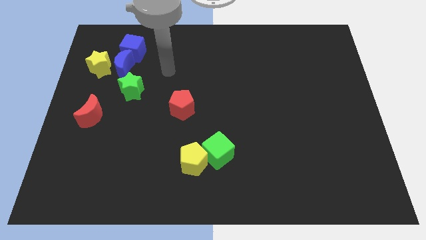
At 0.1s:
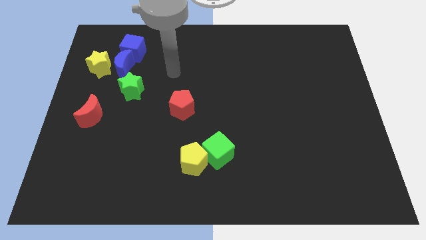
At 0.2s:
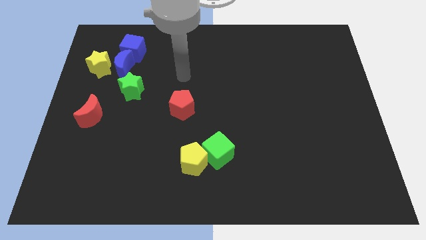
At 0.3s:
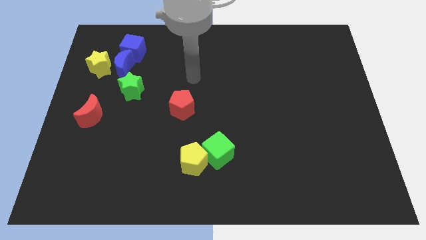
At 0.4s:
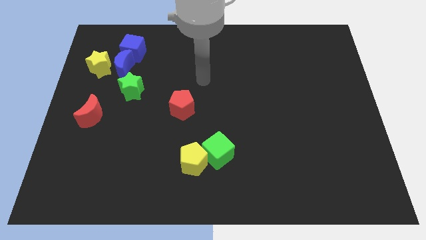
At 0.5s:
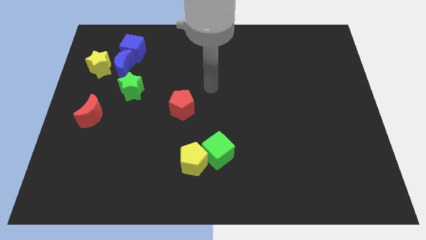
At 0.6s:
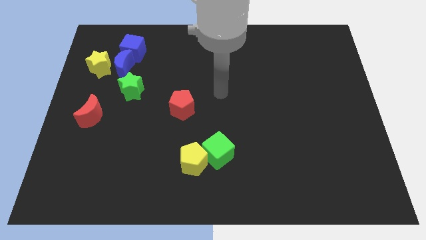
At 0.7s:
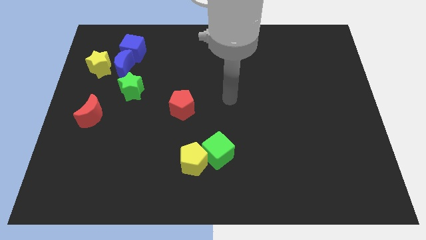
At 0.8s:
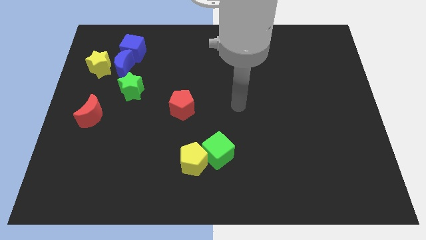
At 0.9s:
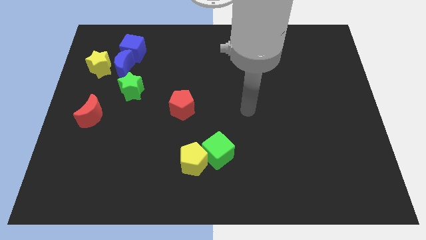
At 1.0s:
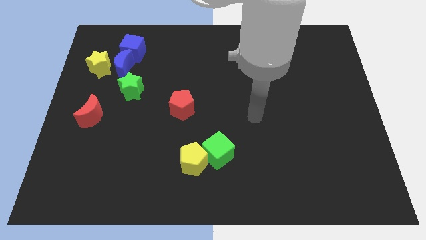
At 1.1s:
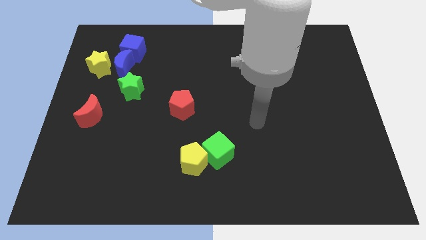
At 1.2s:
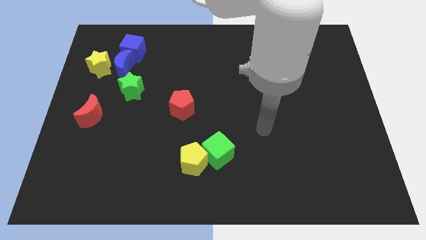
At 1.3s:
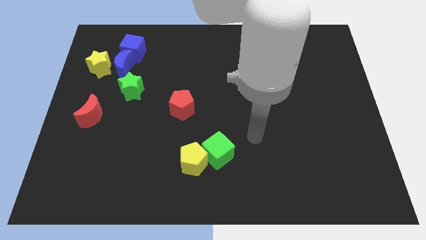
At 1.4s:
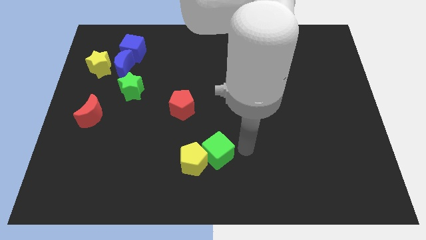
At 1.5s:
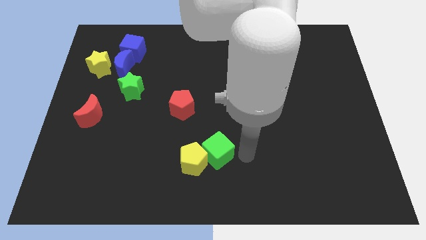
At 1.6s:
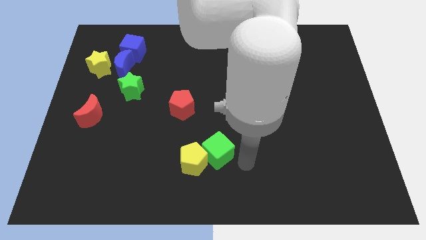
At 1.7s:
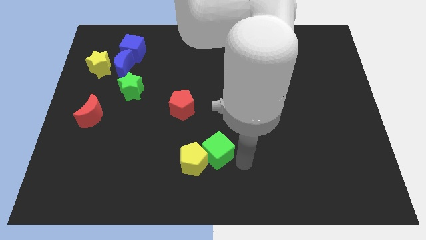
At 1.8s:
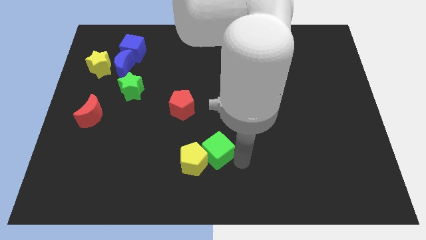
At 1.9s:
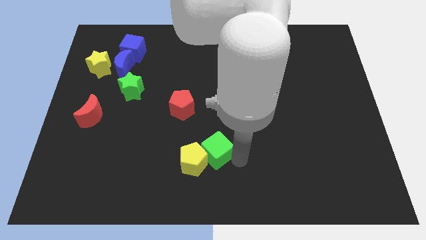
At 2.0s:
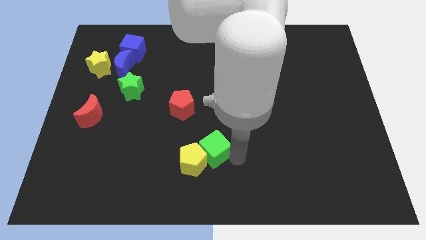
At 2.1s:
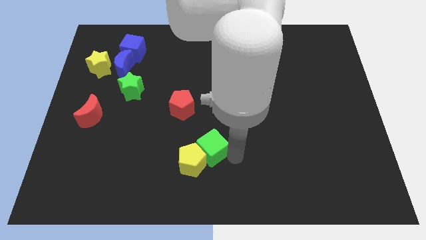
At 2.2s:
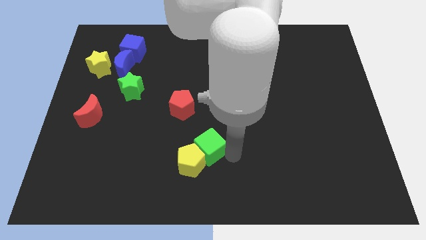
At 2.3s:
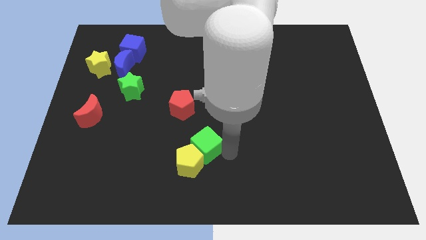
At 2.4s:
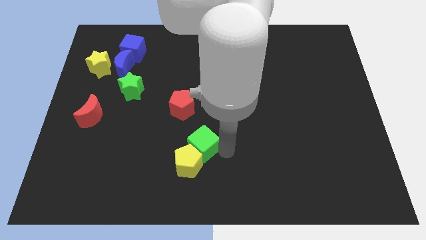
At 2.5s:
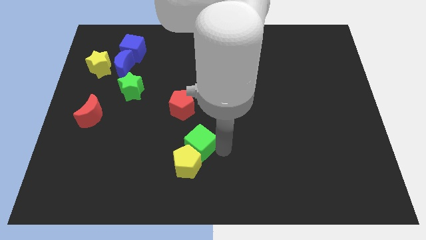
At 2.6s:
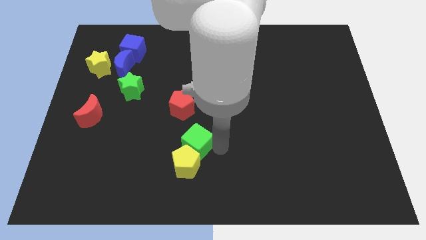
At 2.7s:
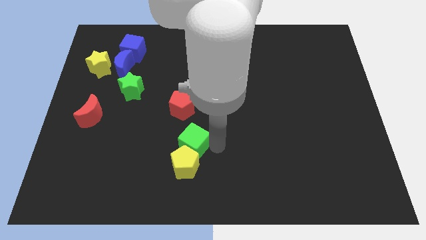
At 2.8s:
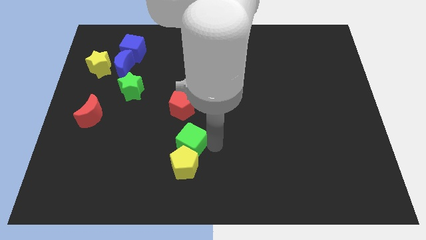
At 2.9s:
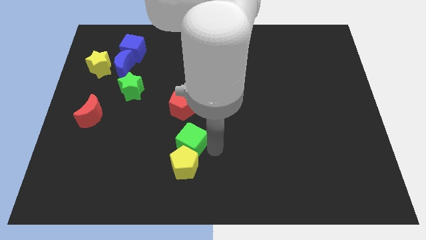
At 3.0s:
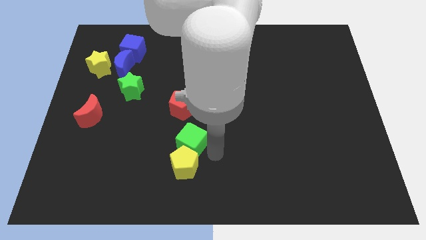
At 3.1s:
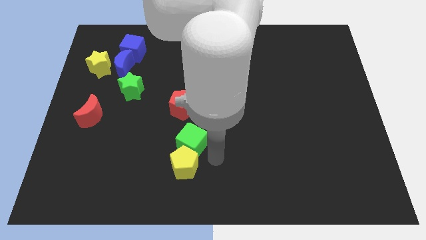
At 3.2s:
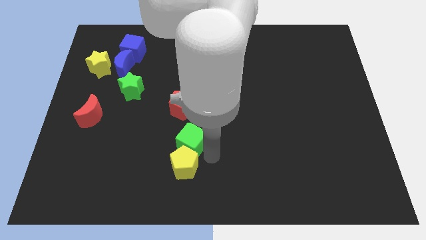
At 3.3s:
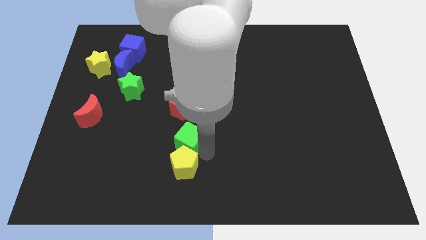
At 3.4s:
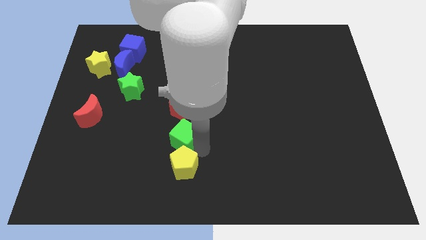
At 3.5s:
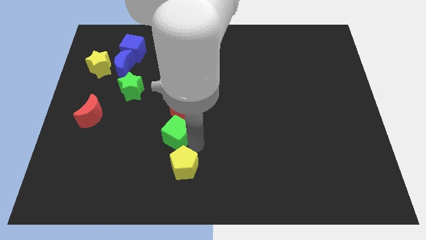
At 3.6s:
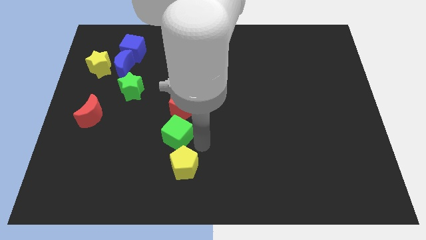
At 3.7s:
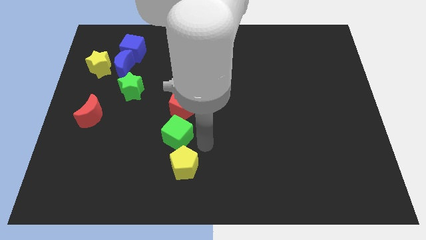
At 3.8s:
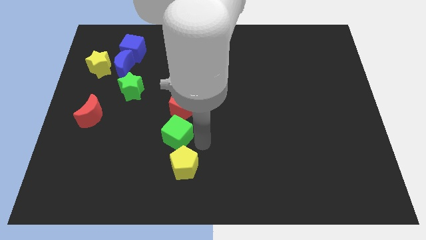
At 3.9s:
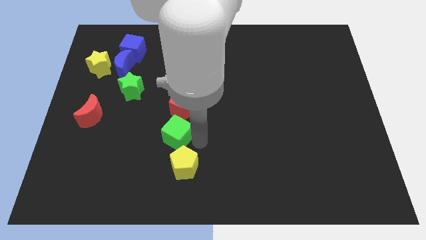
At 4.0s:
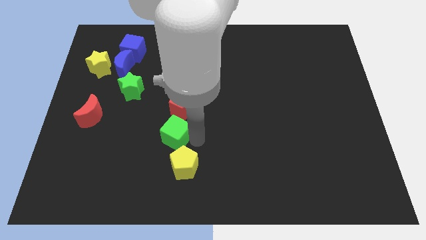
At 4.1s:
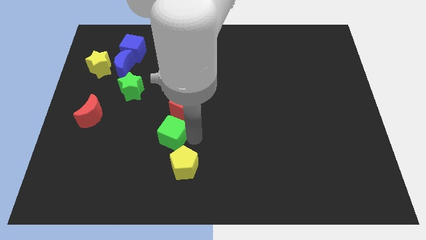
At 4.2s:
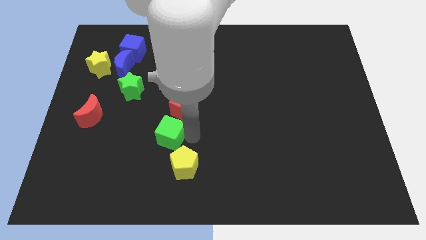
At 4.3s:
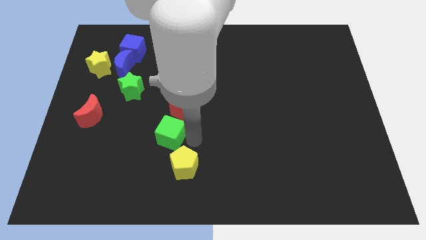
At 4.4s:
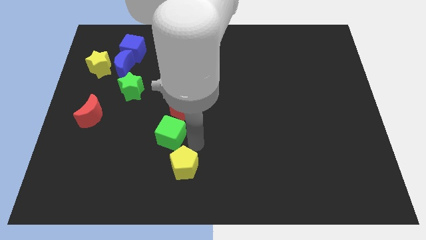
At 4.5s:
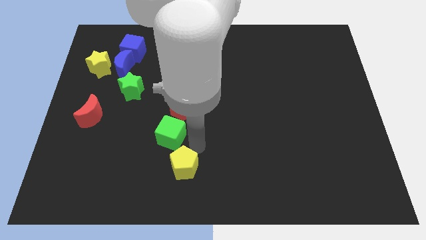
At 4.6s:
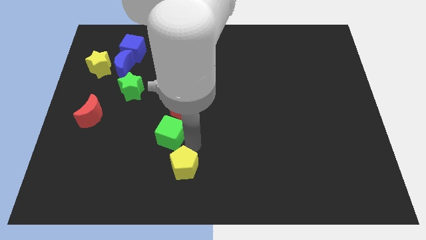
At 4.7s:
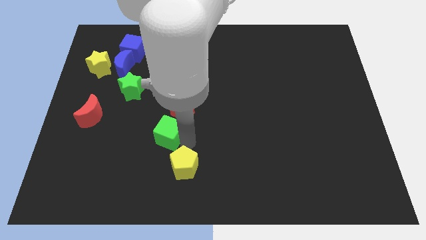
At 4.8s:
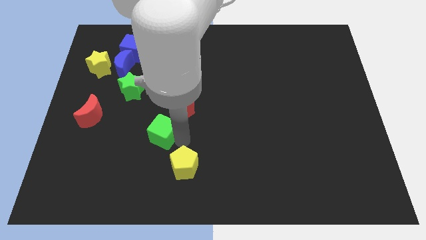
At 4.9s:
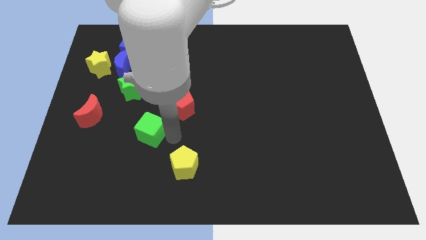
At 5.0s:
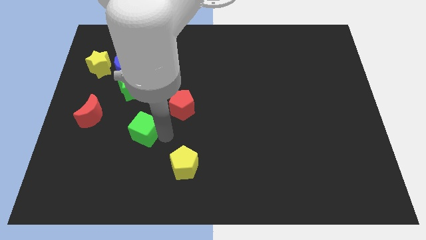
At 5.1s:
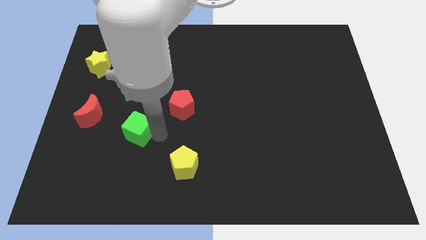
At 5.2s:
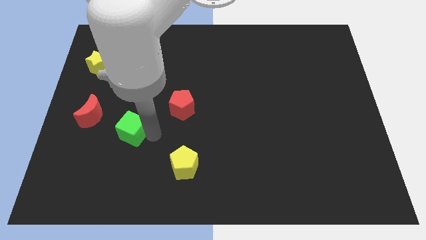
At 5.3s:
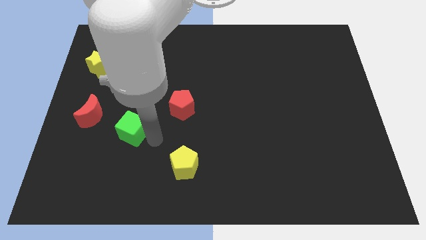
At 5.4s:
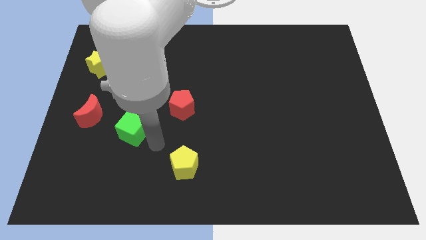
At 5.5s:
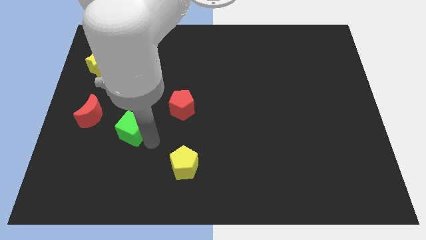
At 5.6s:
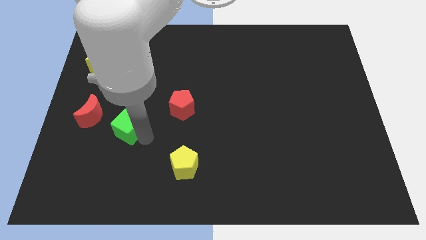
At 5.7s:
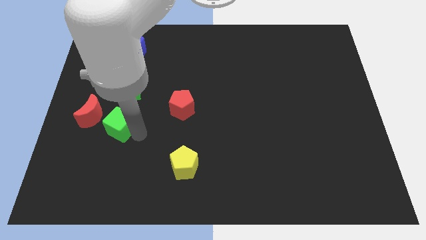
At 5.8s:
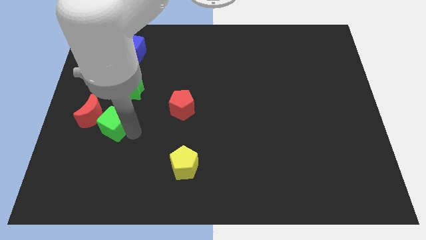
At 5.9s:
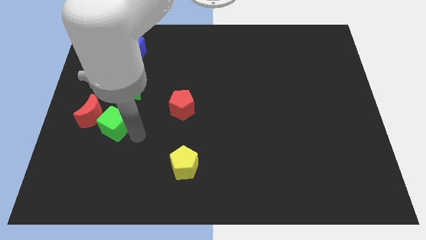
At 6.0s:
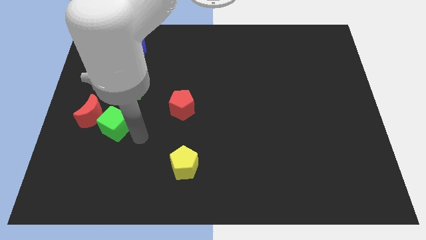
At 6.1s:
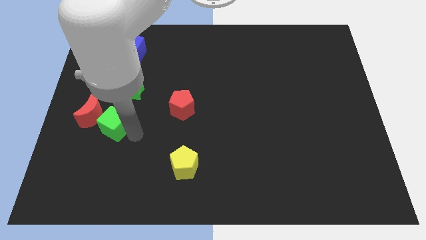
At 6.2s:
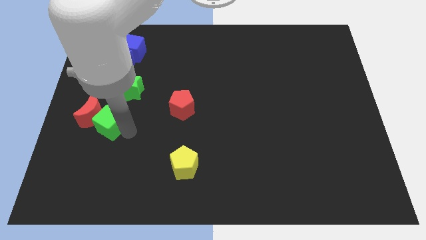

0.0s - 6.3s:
push the green cube towards the red moon

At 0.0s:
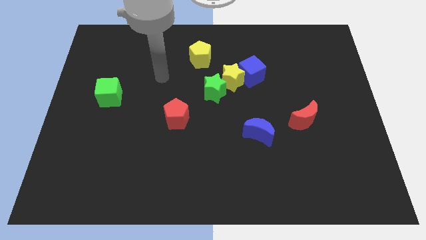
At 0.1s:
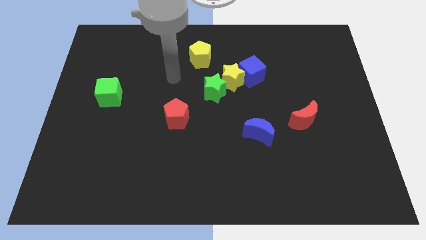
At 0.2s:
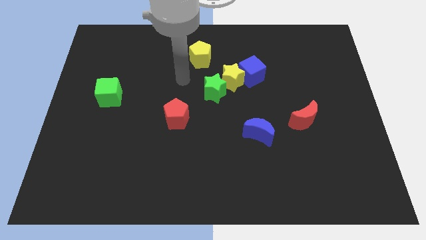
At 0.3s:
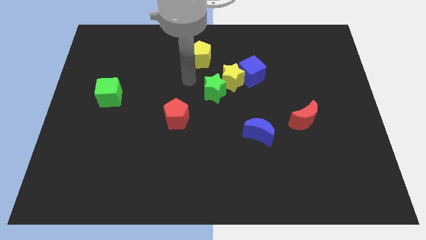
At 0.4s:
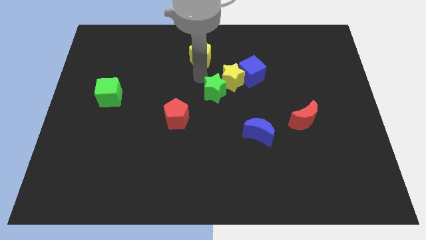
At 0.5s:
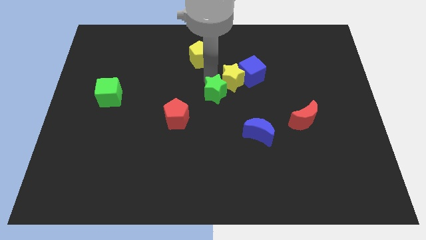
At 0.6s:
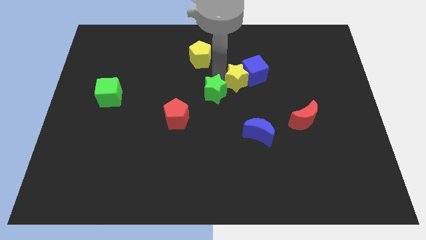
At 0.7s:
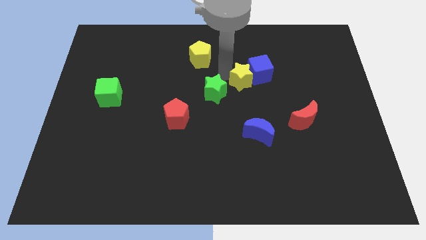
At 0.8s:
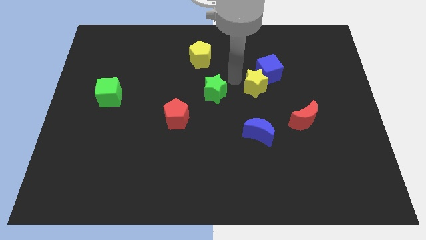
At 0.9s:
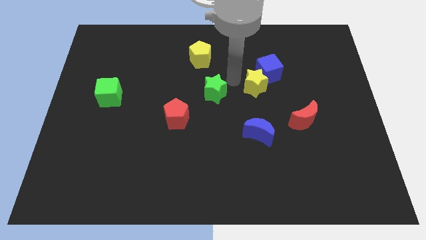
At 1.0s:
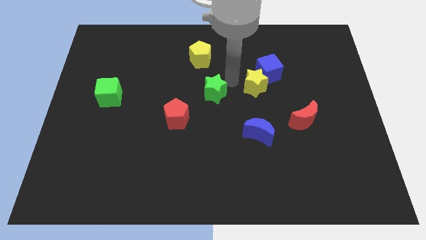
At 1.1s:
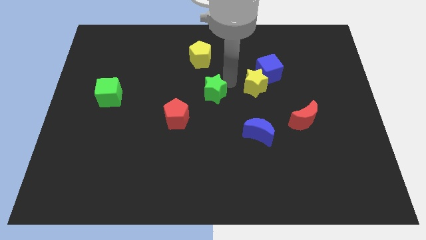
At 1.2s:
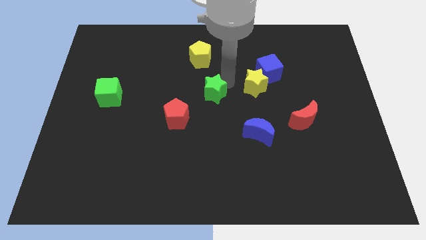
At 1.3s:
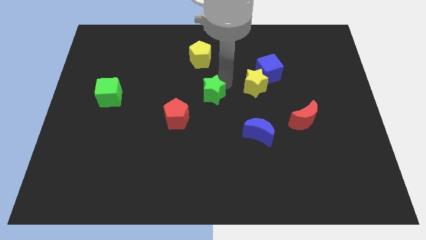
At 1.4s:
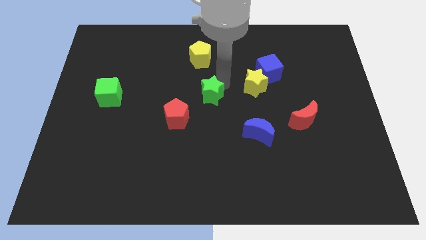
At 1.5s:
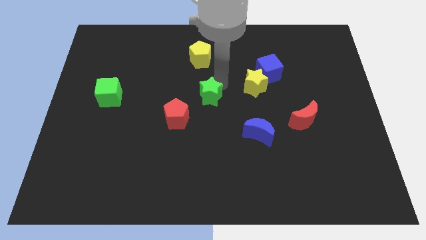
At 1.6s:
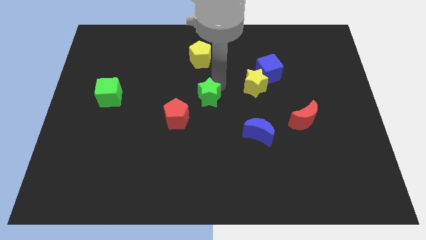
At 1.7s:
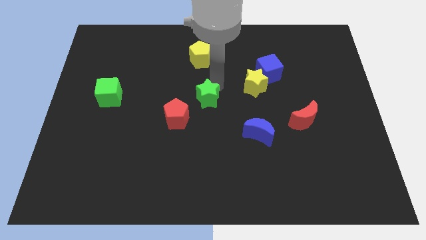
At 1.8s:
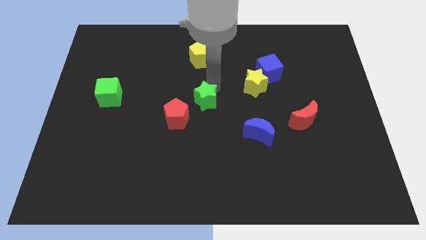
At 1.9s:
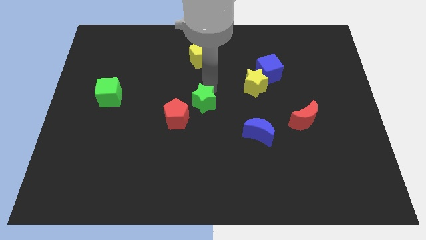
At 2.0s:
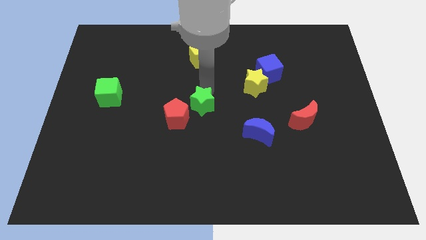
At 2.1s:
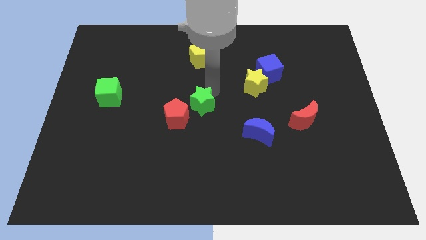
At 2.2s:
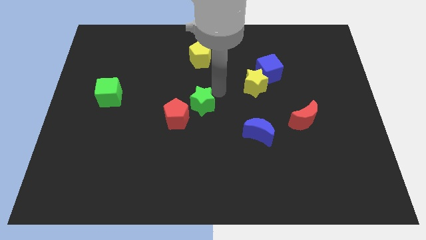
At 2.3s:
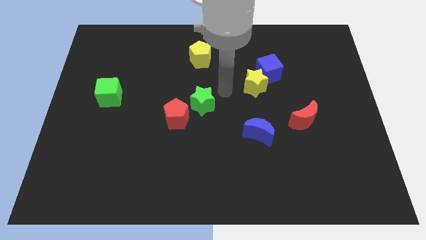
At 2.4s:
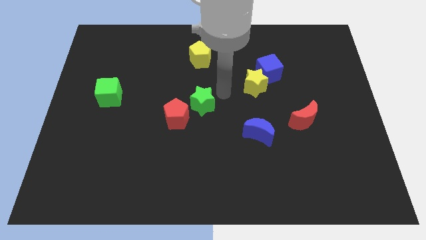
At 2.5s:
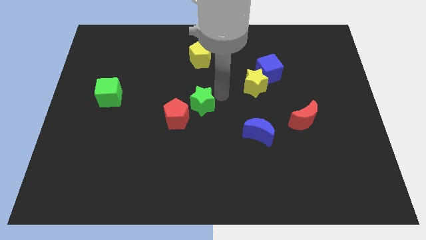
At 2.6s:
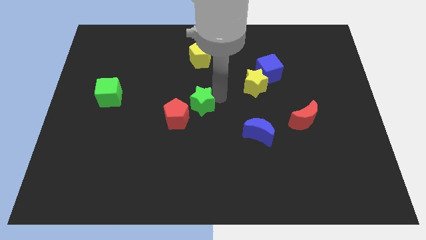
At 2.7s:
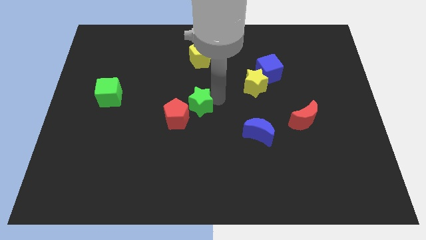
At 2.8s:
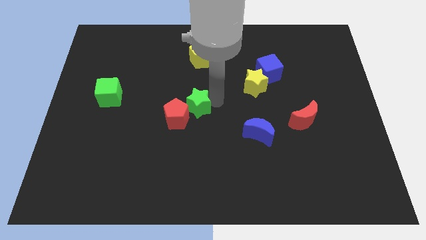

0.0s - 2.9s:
slide the green star next to the red pentagon
